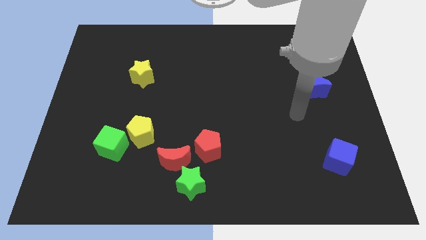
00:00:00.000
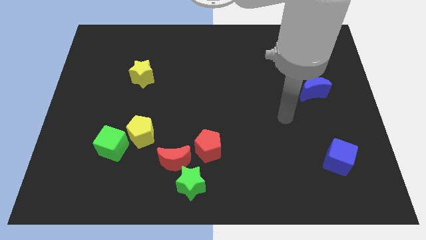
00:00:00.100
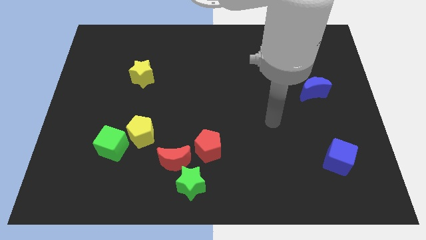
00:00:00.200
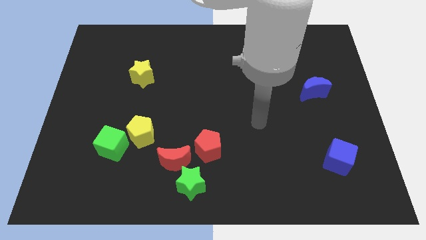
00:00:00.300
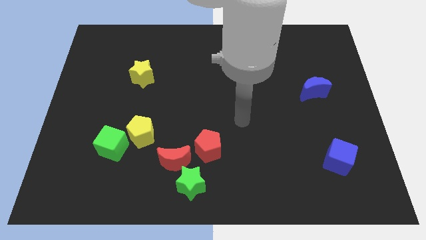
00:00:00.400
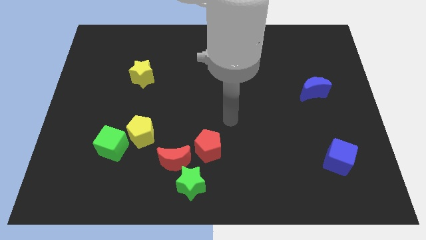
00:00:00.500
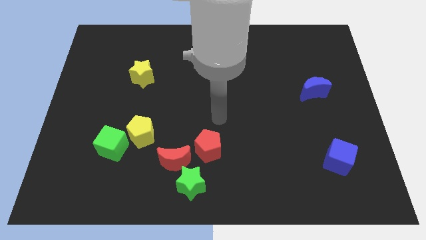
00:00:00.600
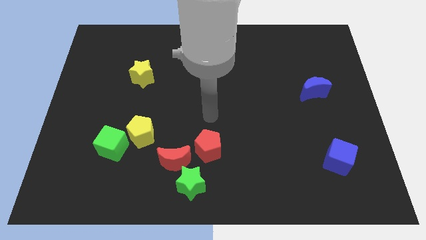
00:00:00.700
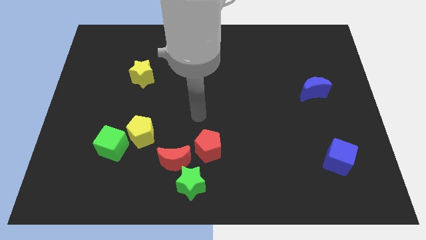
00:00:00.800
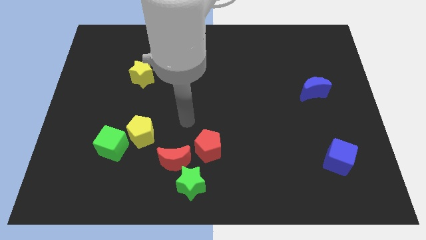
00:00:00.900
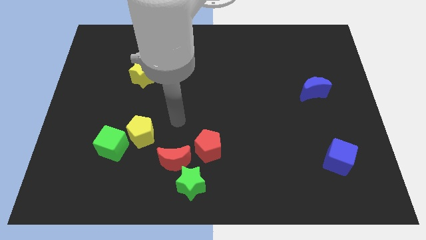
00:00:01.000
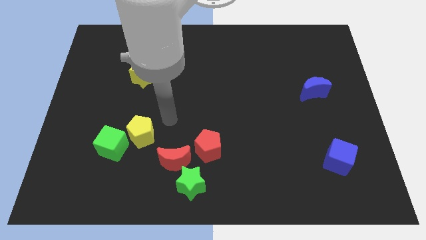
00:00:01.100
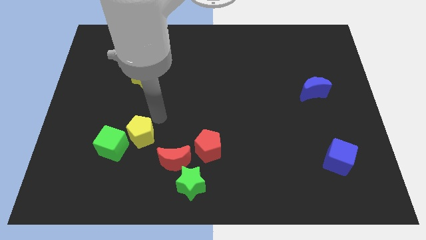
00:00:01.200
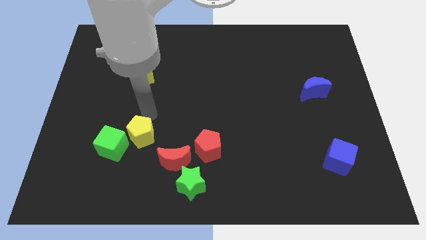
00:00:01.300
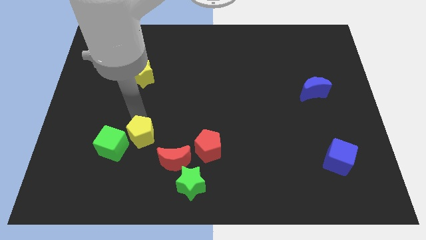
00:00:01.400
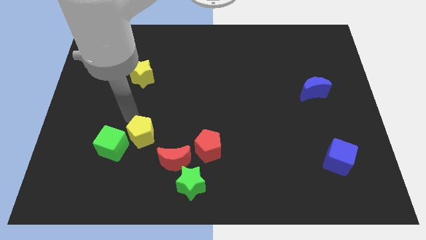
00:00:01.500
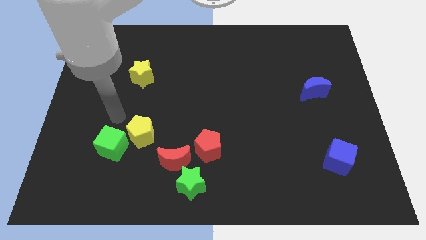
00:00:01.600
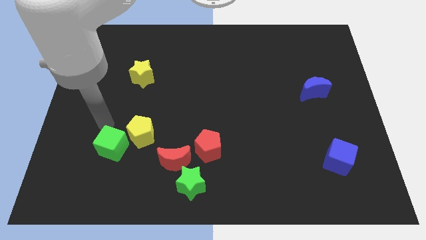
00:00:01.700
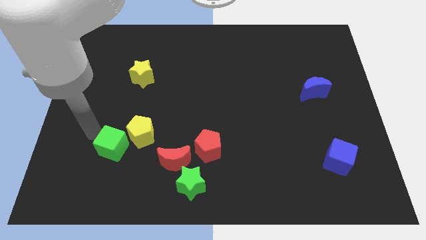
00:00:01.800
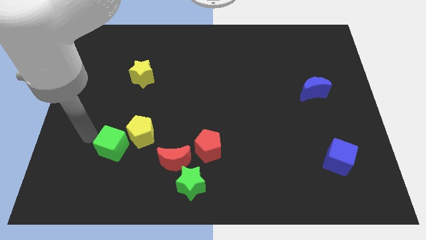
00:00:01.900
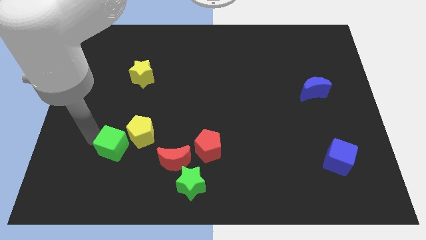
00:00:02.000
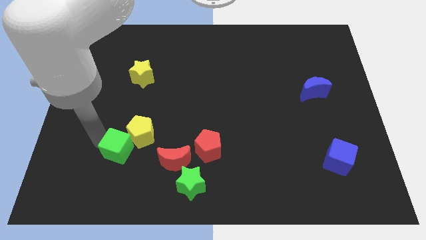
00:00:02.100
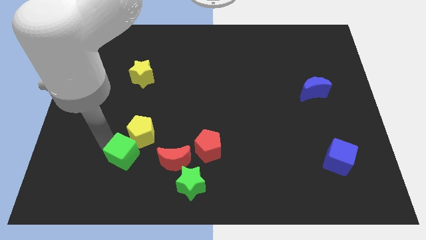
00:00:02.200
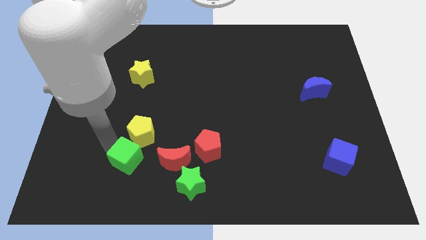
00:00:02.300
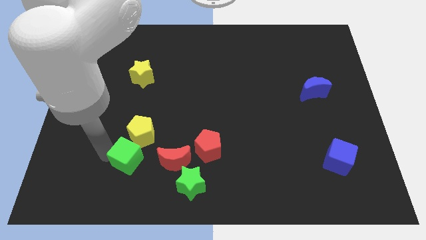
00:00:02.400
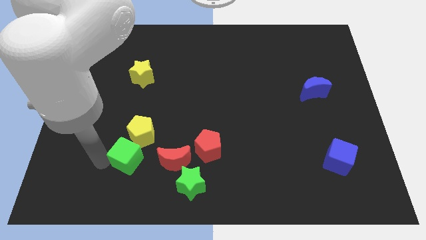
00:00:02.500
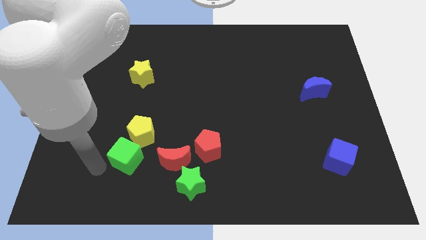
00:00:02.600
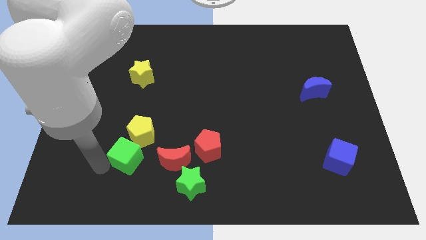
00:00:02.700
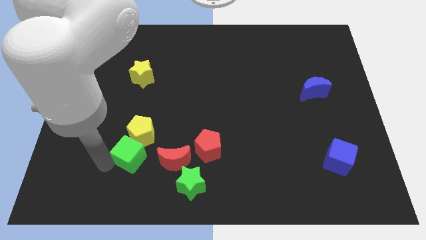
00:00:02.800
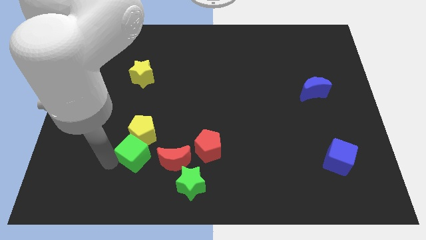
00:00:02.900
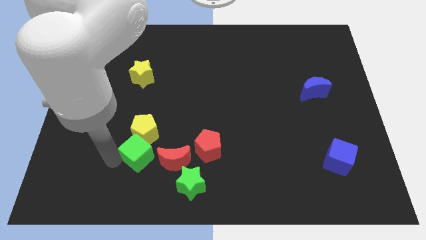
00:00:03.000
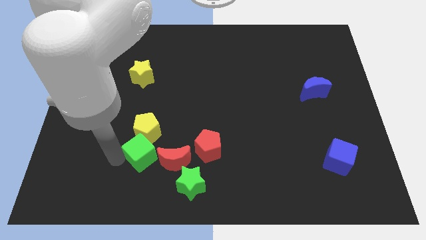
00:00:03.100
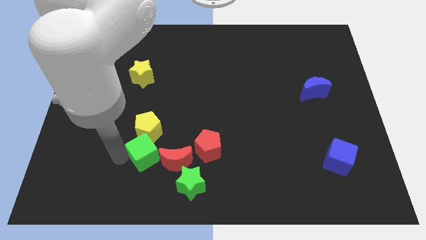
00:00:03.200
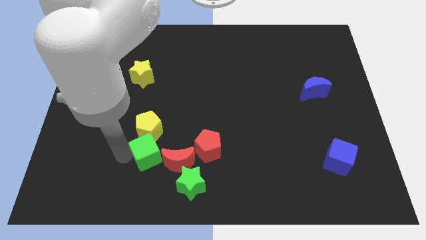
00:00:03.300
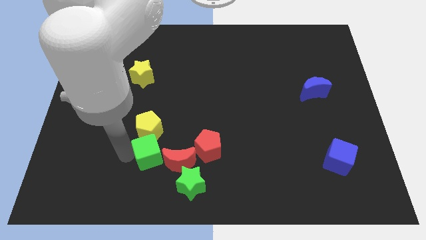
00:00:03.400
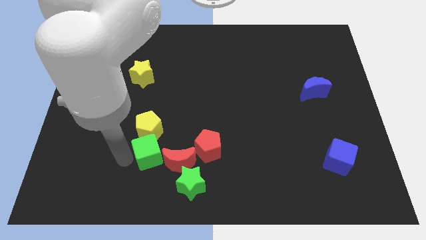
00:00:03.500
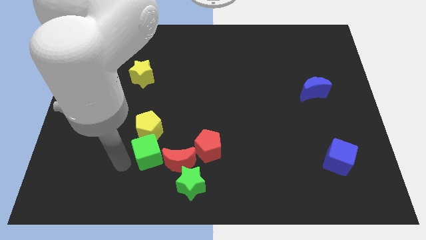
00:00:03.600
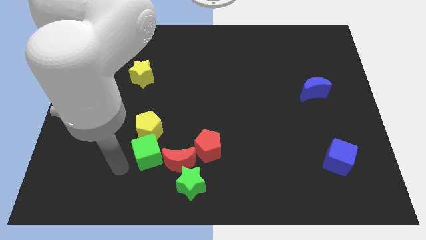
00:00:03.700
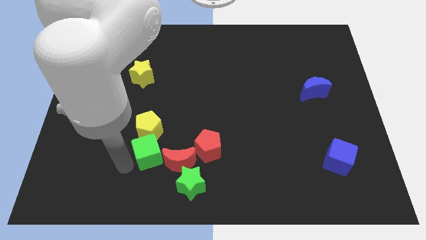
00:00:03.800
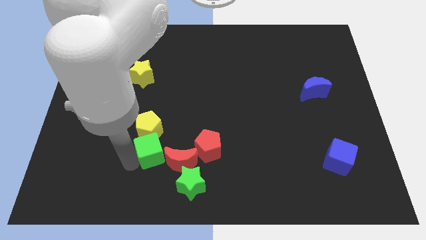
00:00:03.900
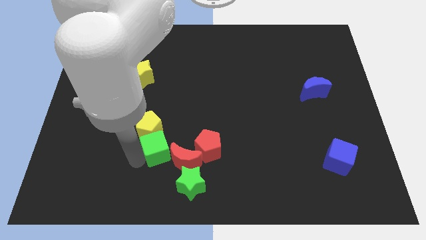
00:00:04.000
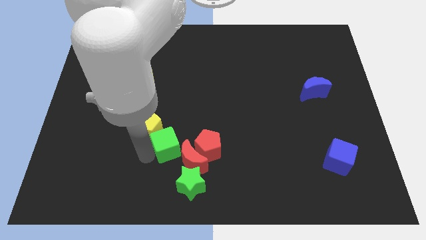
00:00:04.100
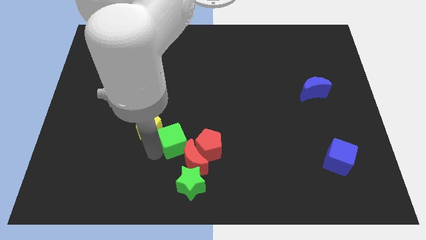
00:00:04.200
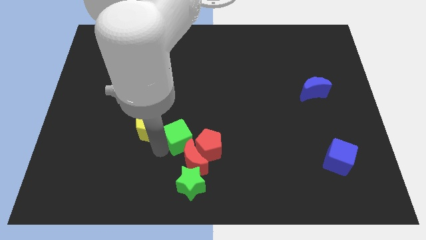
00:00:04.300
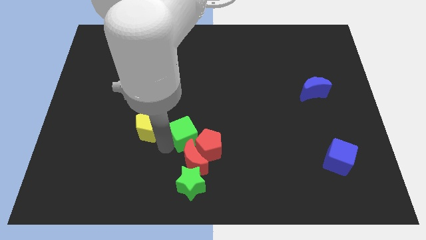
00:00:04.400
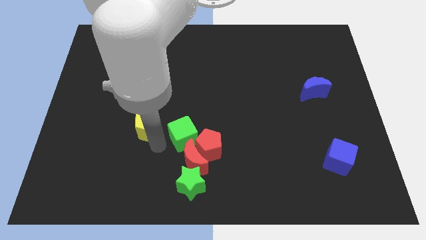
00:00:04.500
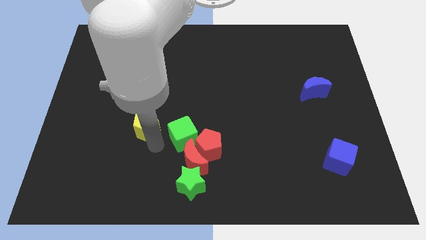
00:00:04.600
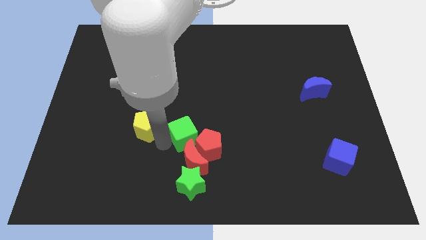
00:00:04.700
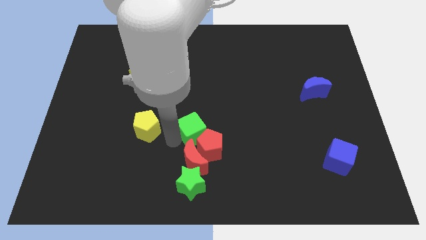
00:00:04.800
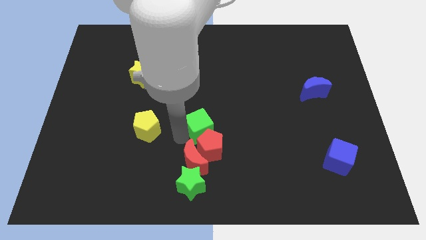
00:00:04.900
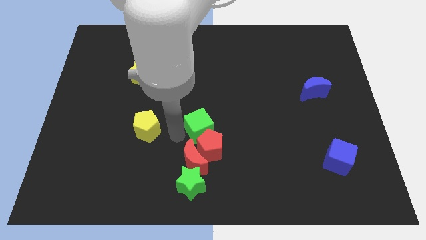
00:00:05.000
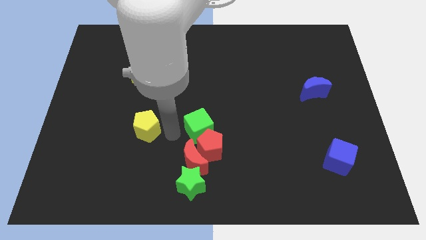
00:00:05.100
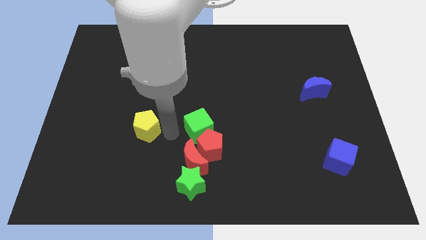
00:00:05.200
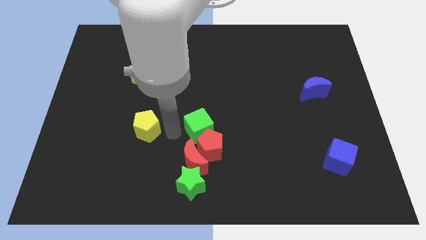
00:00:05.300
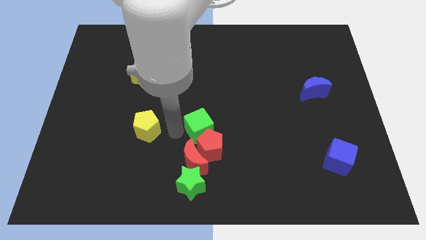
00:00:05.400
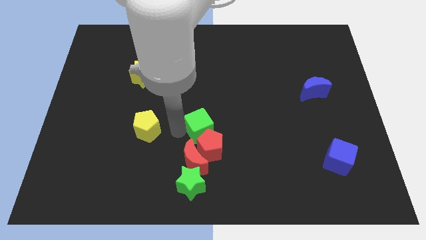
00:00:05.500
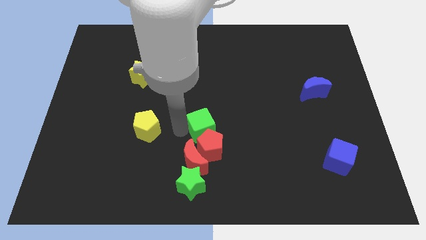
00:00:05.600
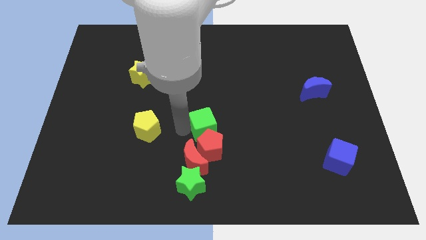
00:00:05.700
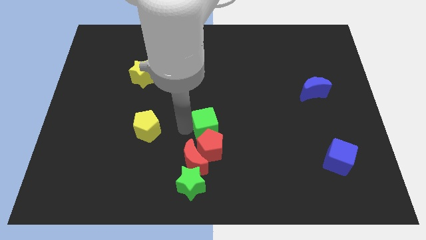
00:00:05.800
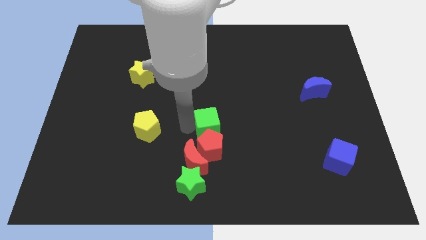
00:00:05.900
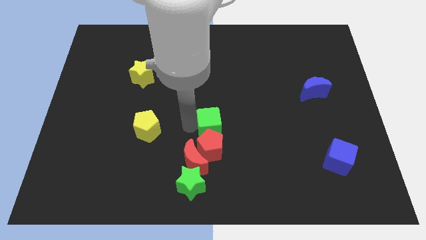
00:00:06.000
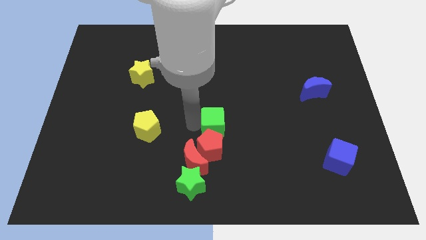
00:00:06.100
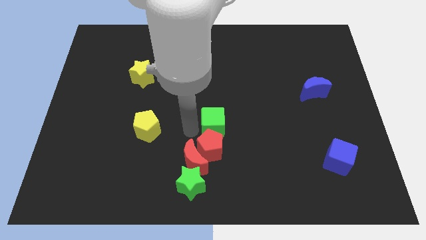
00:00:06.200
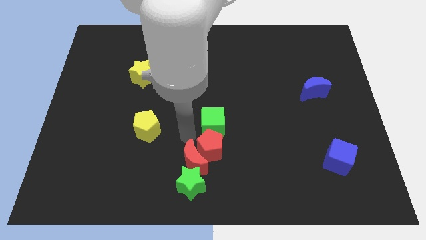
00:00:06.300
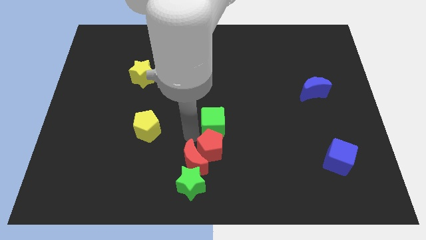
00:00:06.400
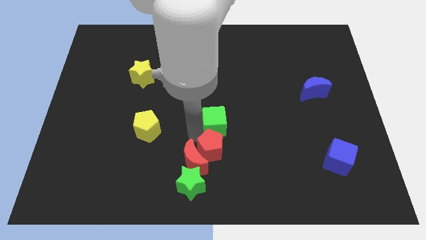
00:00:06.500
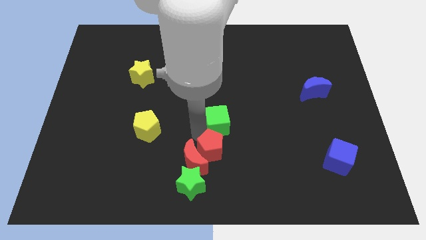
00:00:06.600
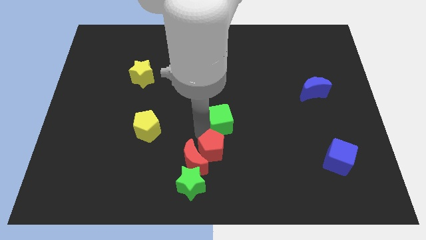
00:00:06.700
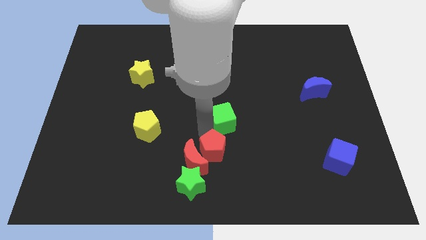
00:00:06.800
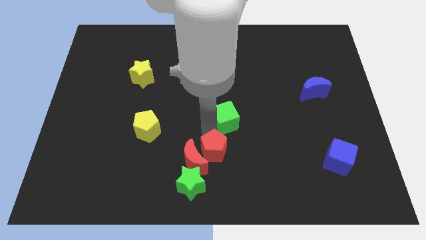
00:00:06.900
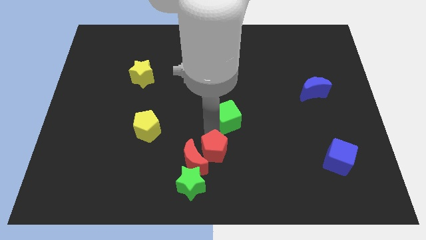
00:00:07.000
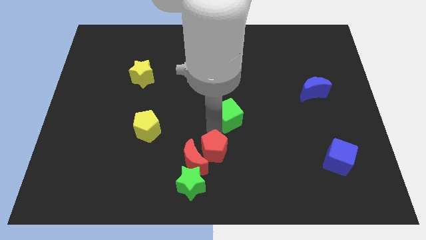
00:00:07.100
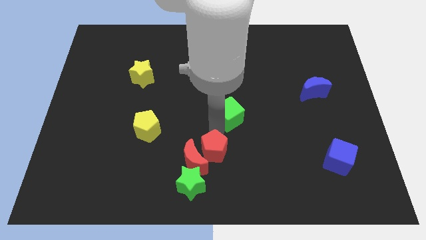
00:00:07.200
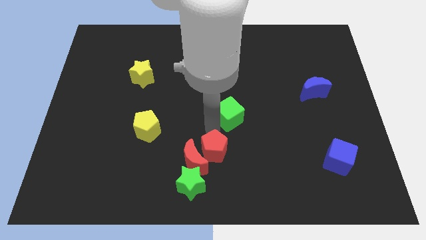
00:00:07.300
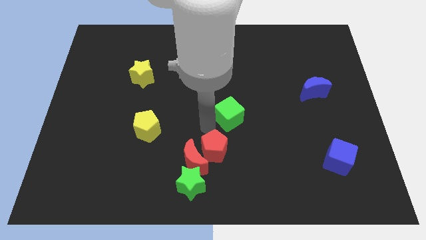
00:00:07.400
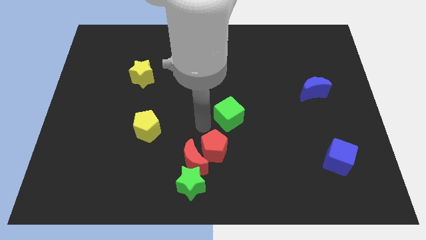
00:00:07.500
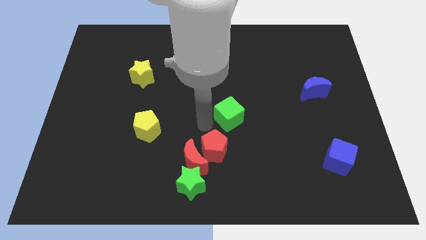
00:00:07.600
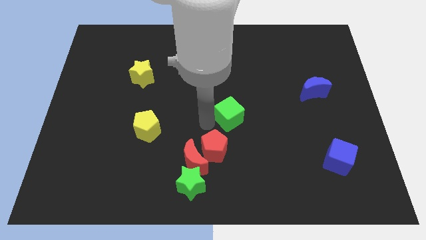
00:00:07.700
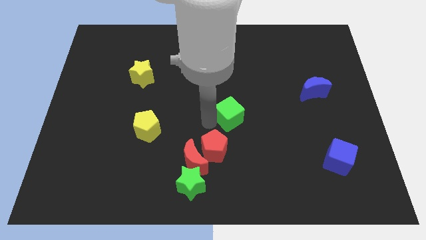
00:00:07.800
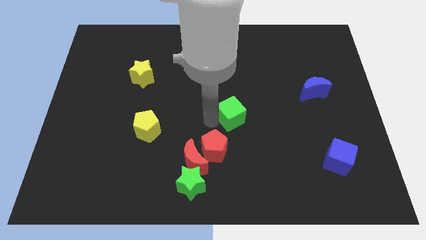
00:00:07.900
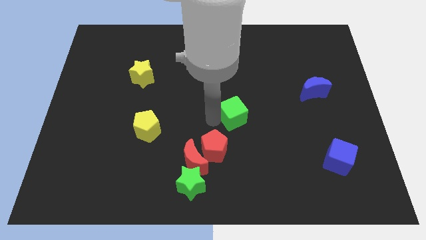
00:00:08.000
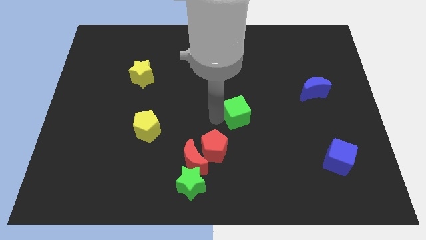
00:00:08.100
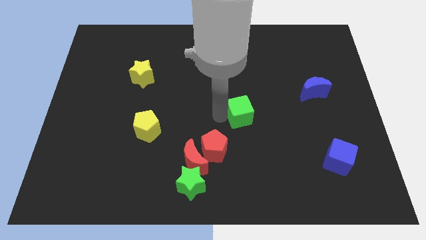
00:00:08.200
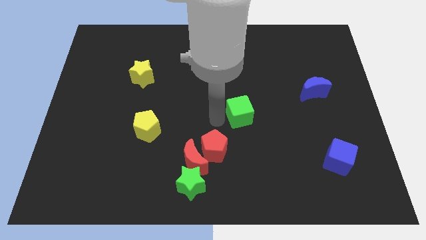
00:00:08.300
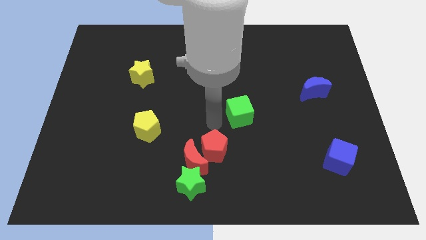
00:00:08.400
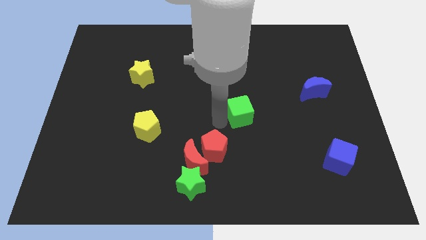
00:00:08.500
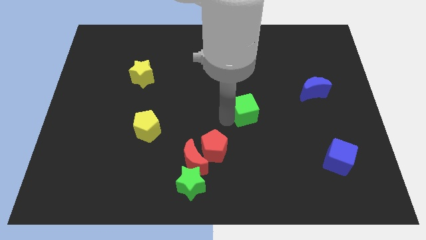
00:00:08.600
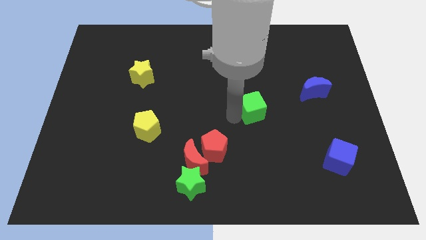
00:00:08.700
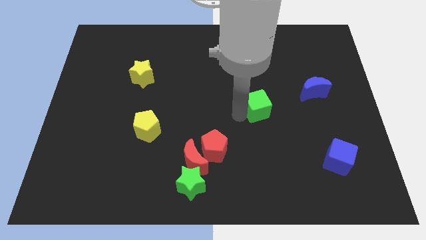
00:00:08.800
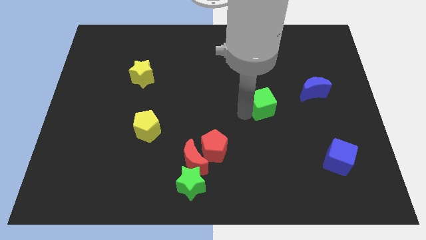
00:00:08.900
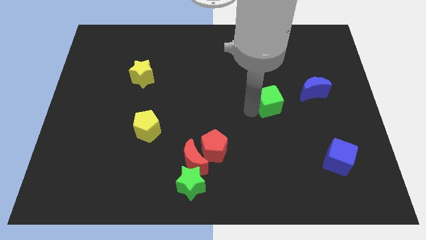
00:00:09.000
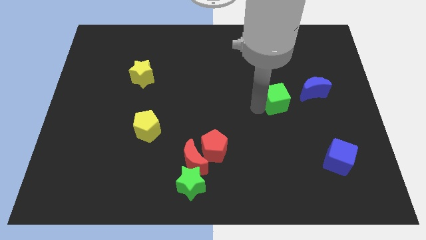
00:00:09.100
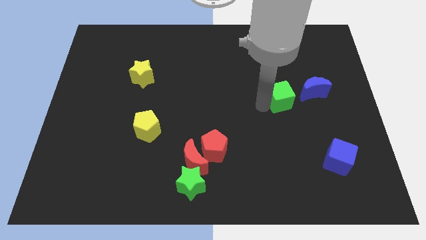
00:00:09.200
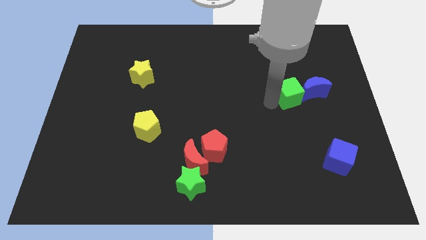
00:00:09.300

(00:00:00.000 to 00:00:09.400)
push the green cube to the blue moon
